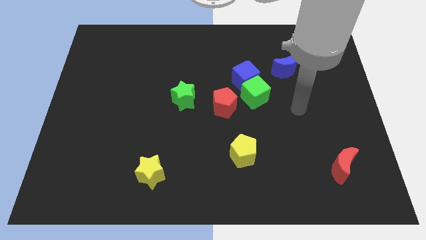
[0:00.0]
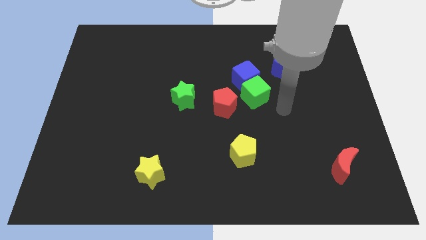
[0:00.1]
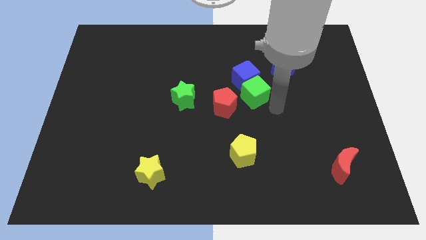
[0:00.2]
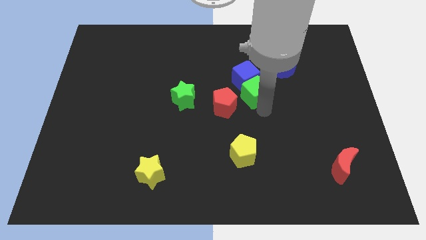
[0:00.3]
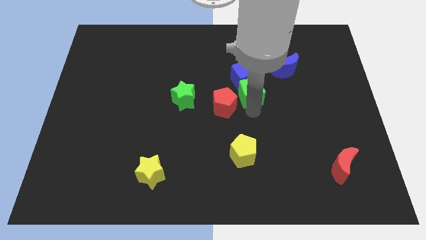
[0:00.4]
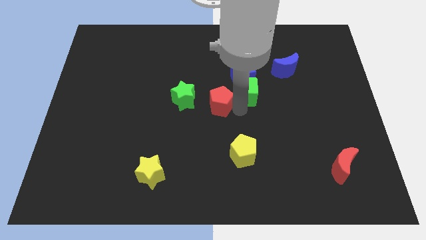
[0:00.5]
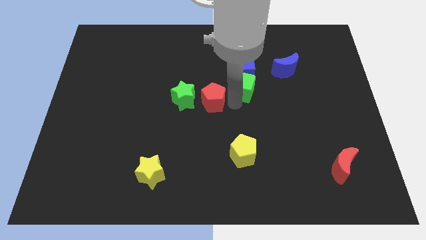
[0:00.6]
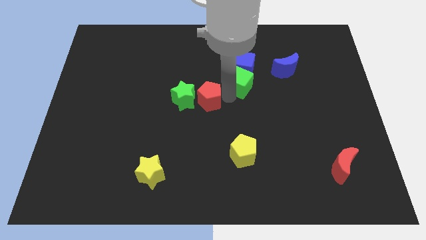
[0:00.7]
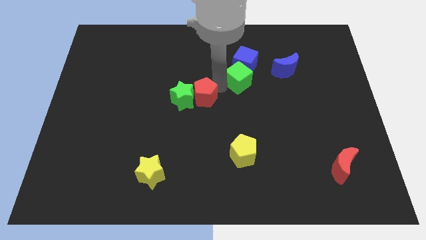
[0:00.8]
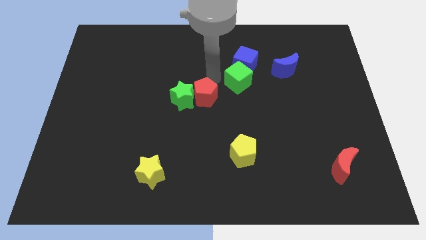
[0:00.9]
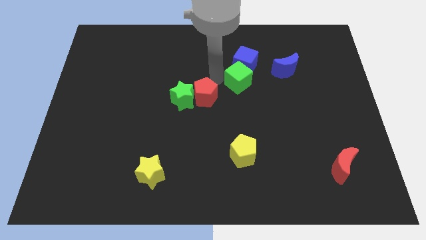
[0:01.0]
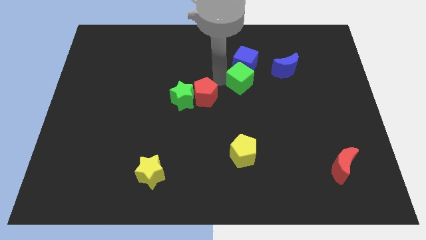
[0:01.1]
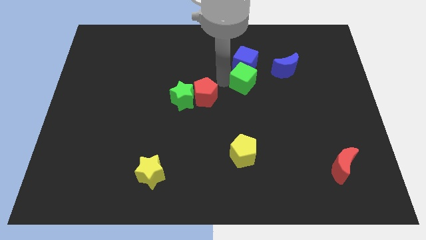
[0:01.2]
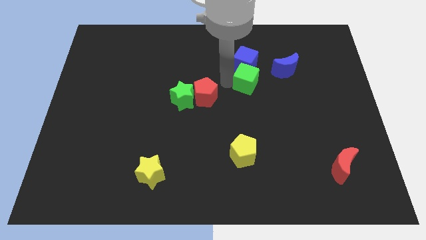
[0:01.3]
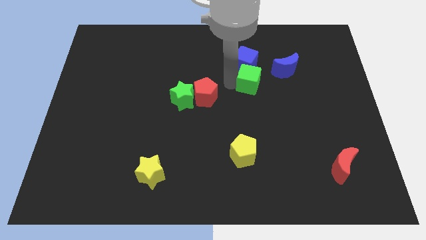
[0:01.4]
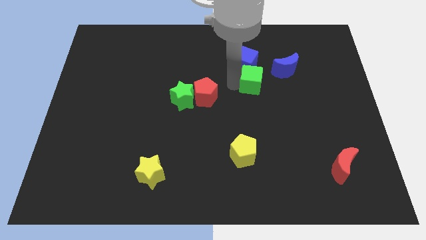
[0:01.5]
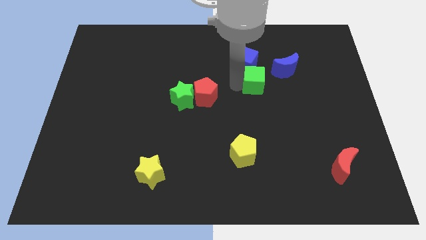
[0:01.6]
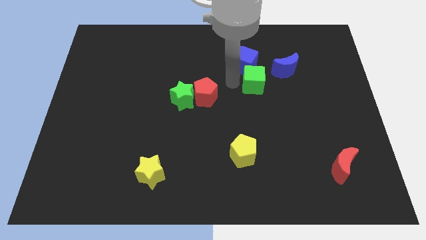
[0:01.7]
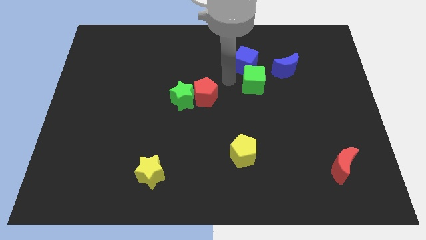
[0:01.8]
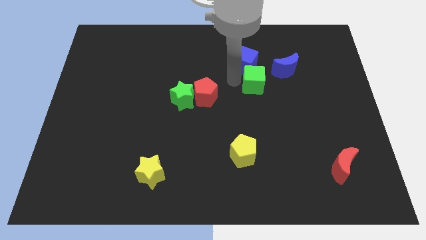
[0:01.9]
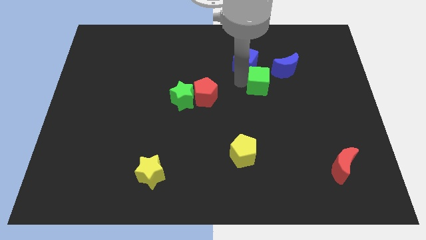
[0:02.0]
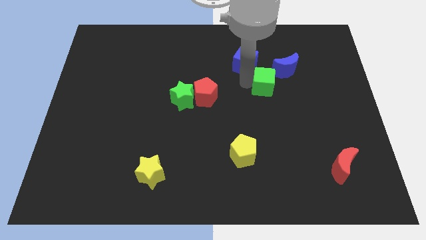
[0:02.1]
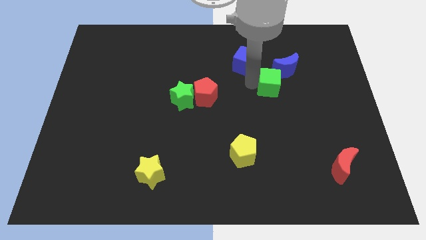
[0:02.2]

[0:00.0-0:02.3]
pull the green cube apart from the blue cube and red pentagon

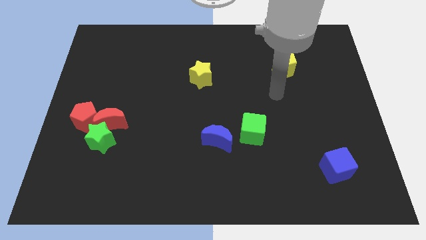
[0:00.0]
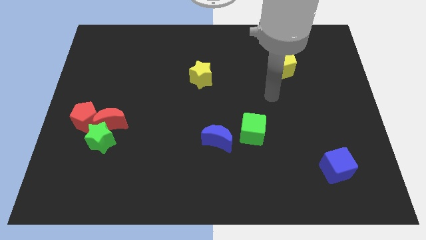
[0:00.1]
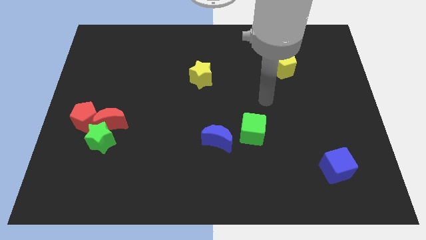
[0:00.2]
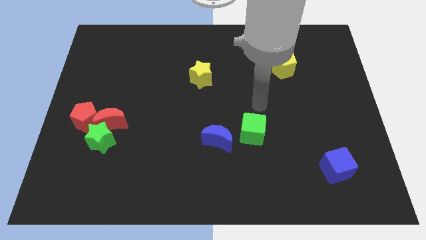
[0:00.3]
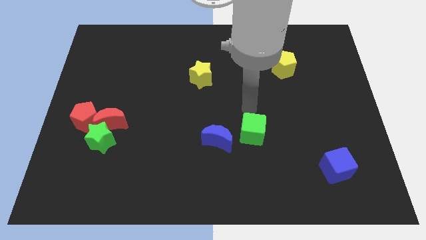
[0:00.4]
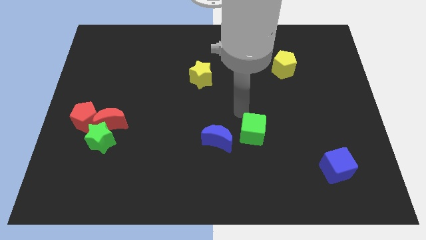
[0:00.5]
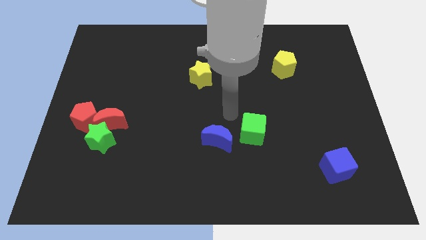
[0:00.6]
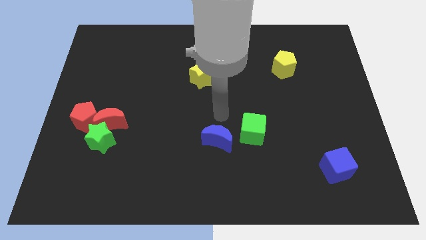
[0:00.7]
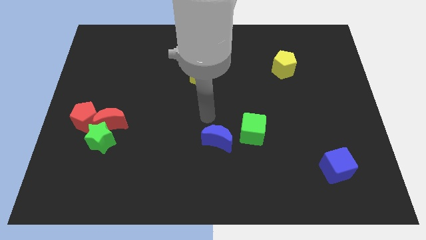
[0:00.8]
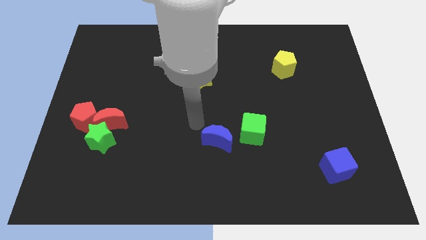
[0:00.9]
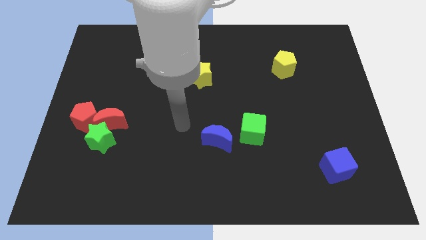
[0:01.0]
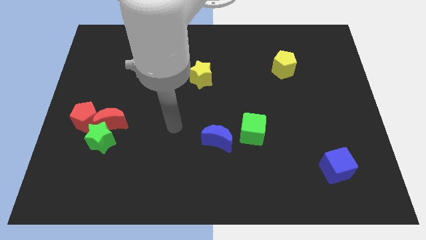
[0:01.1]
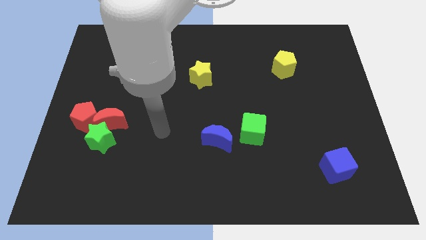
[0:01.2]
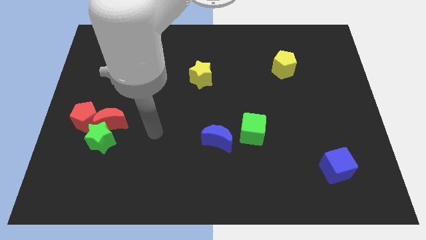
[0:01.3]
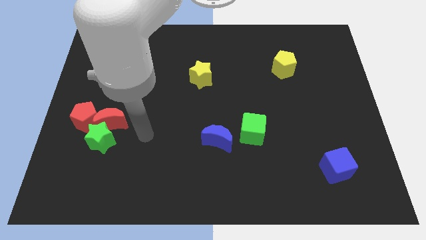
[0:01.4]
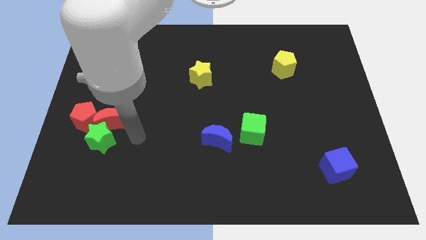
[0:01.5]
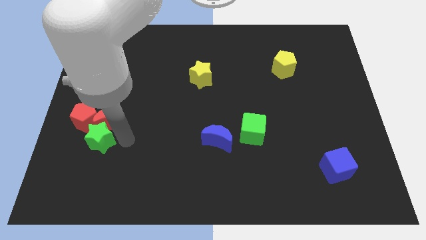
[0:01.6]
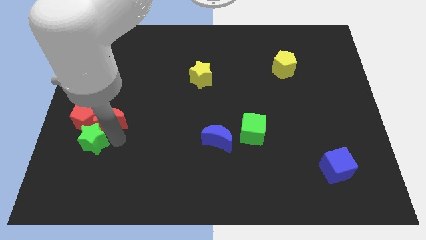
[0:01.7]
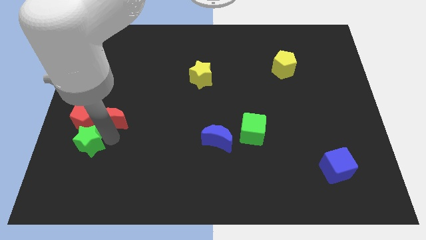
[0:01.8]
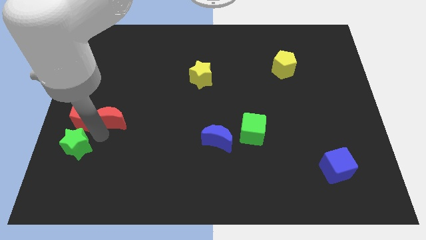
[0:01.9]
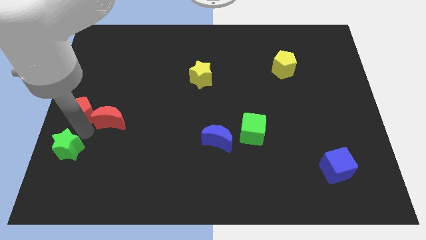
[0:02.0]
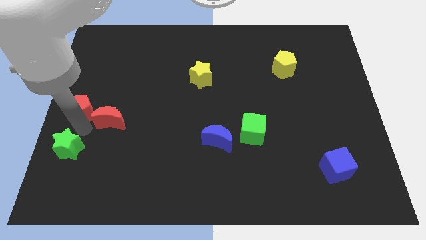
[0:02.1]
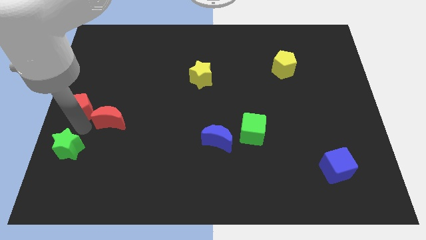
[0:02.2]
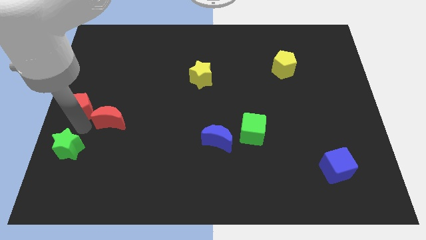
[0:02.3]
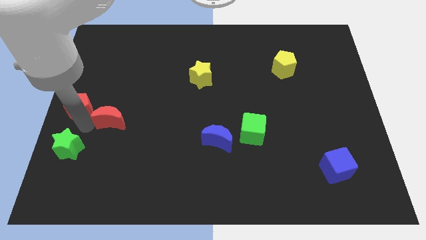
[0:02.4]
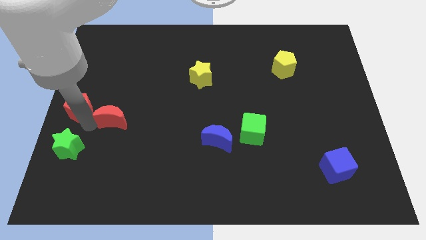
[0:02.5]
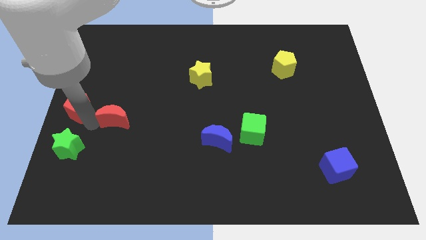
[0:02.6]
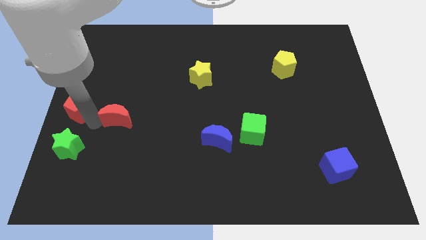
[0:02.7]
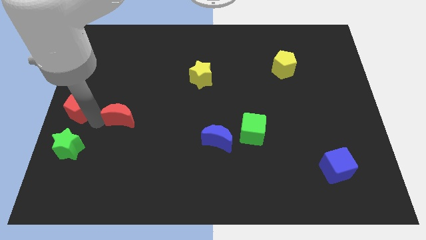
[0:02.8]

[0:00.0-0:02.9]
separate the red moon from the green star and red pentagon

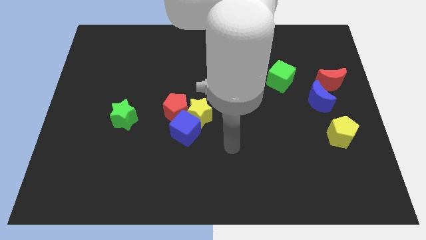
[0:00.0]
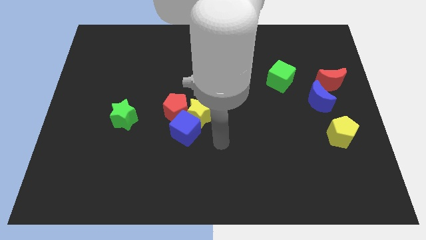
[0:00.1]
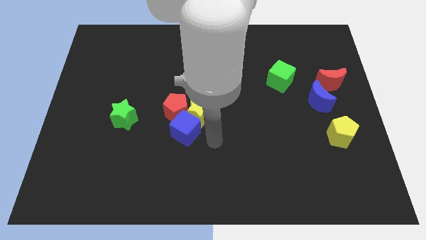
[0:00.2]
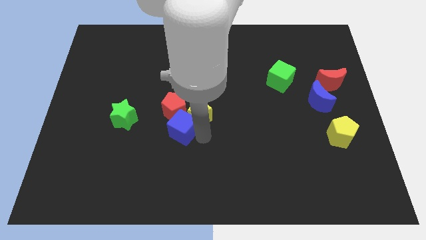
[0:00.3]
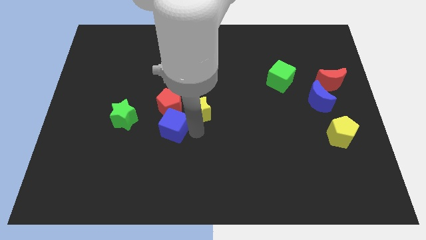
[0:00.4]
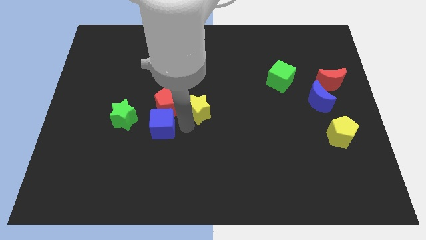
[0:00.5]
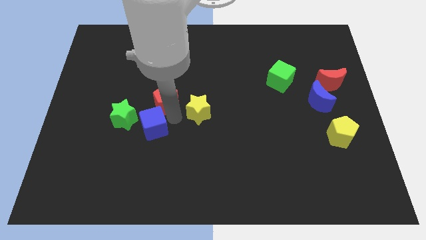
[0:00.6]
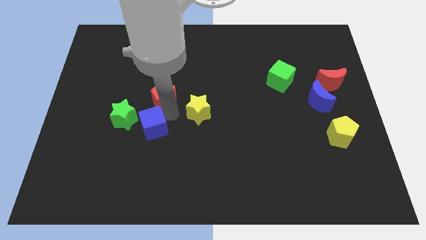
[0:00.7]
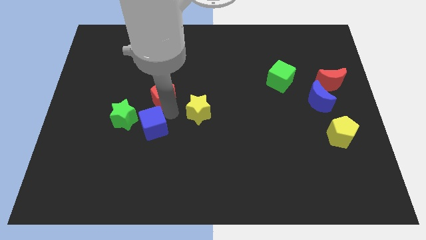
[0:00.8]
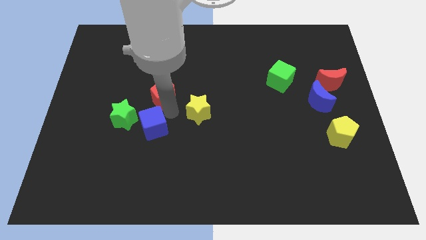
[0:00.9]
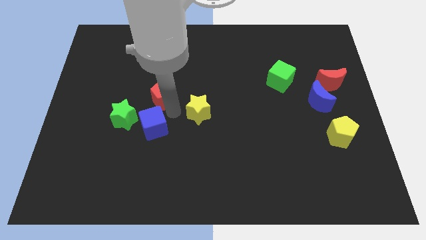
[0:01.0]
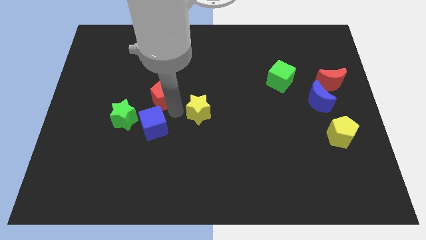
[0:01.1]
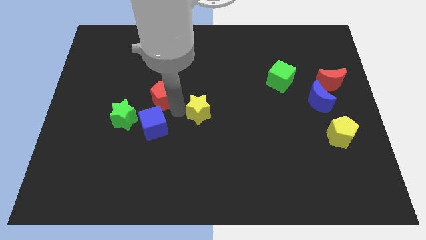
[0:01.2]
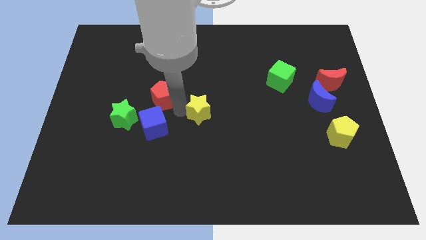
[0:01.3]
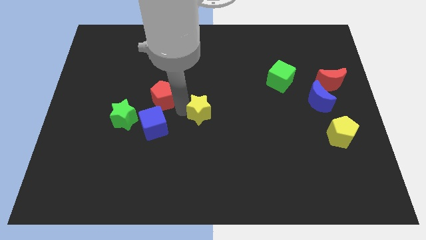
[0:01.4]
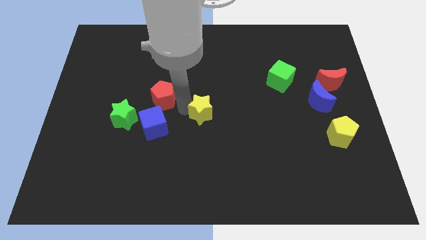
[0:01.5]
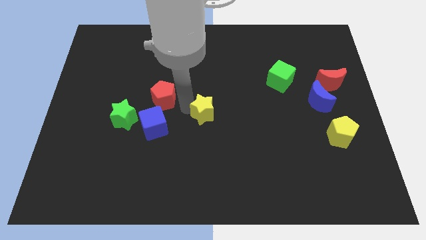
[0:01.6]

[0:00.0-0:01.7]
pull the yellow star apart from the blue cube and red pentagon

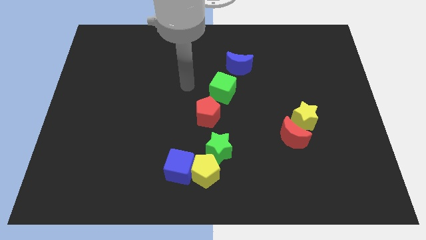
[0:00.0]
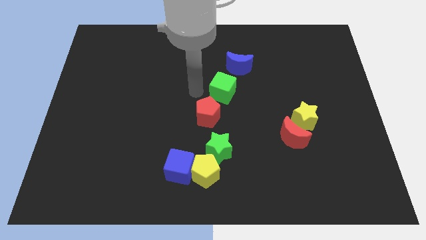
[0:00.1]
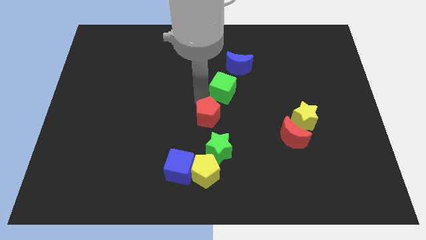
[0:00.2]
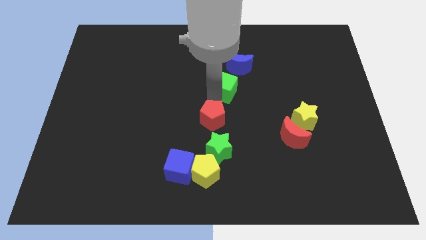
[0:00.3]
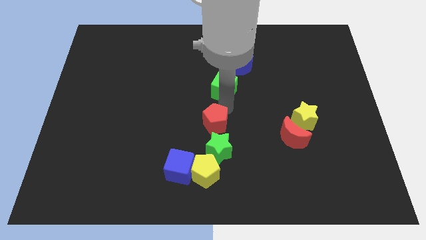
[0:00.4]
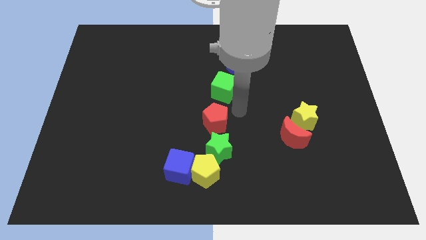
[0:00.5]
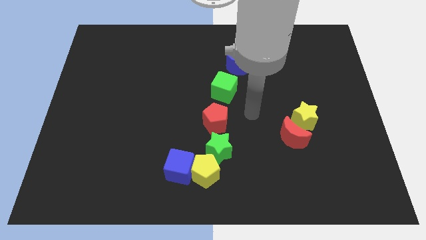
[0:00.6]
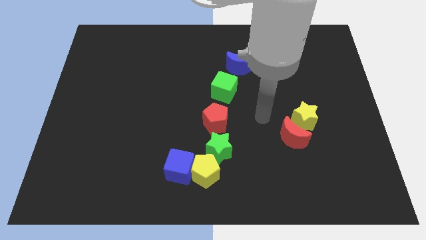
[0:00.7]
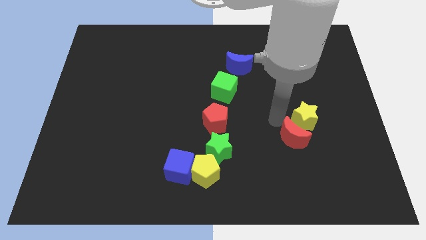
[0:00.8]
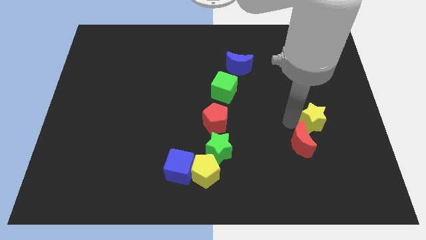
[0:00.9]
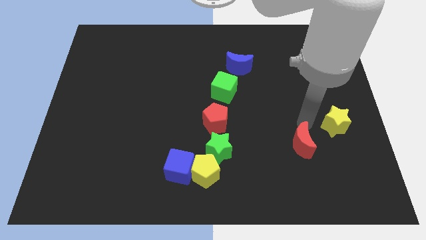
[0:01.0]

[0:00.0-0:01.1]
separate the red moon from the yellow star

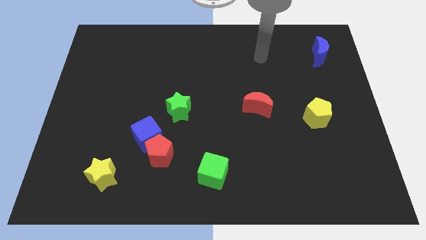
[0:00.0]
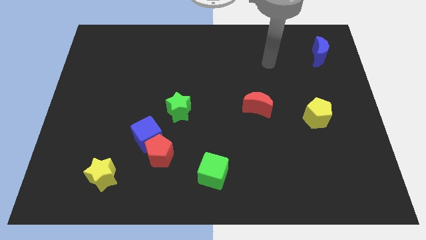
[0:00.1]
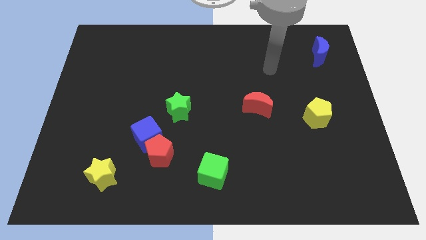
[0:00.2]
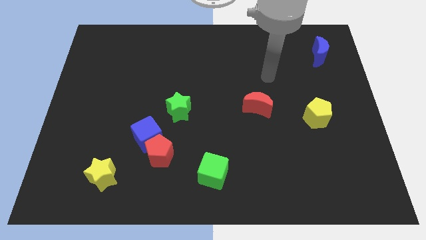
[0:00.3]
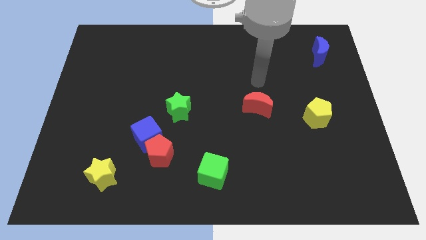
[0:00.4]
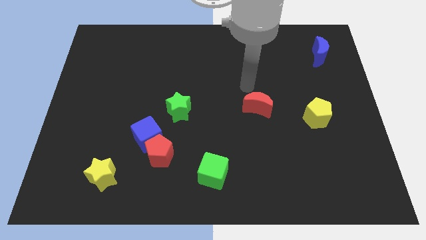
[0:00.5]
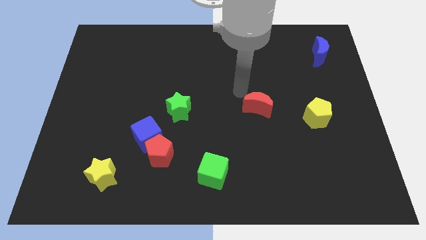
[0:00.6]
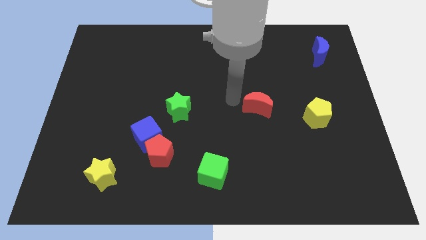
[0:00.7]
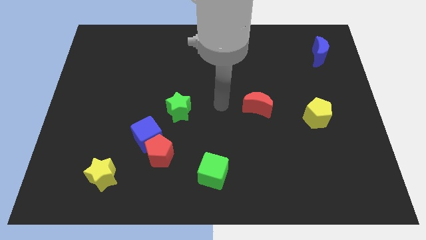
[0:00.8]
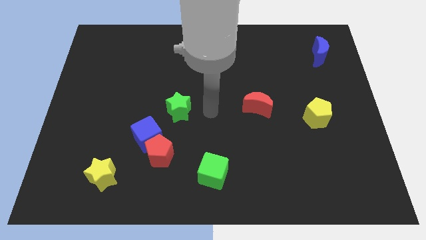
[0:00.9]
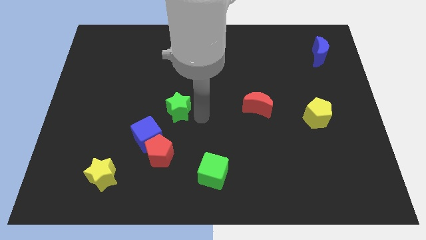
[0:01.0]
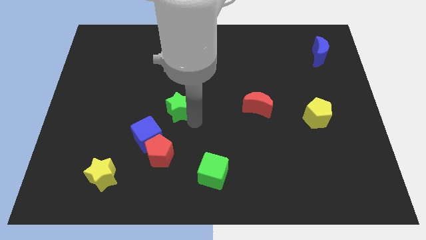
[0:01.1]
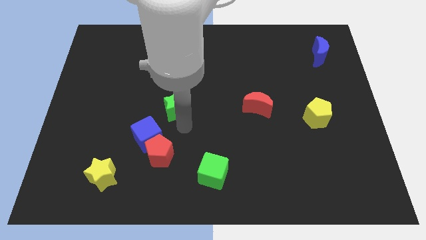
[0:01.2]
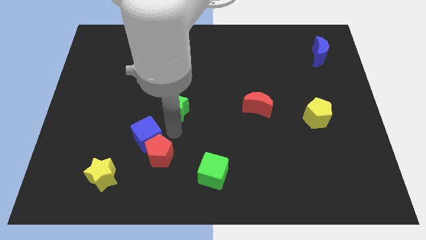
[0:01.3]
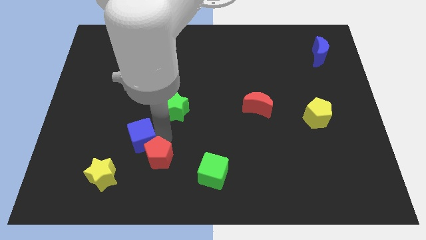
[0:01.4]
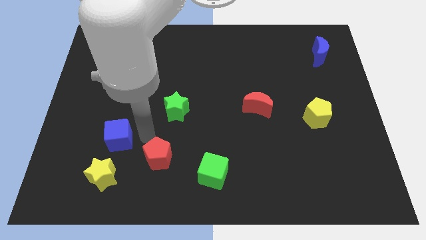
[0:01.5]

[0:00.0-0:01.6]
move the red pentagon away from the blue cube
